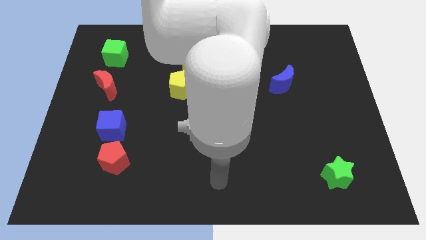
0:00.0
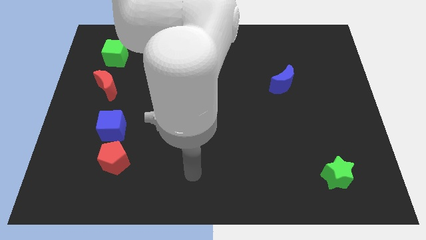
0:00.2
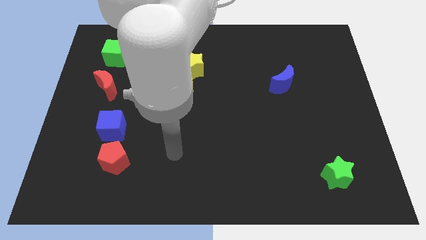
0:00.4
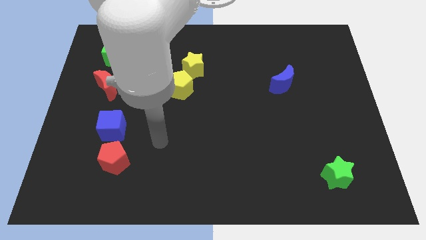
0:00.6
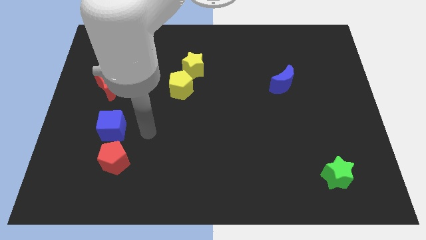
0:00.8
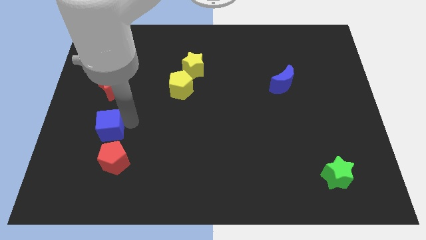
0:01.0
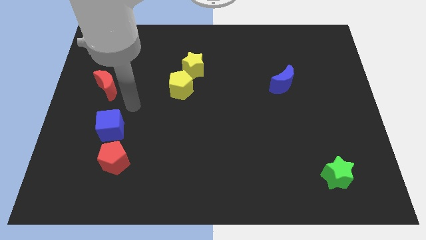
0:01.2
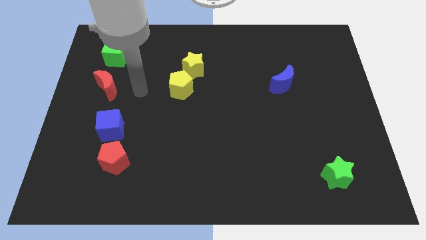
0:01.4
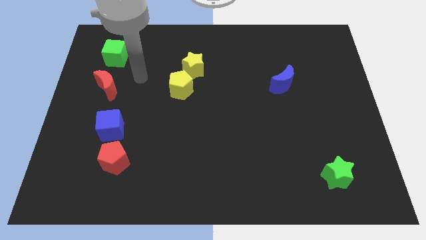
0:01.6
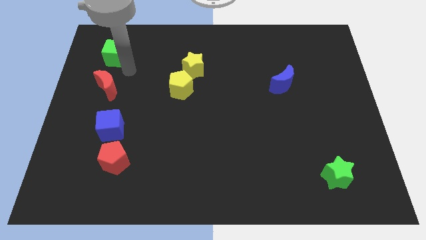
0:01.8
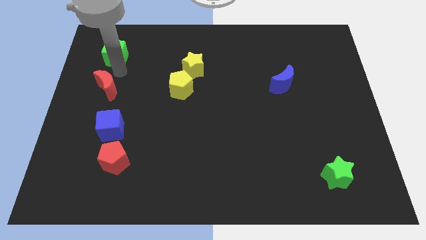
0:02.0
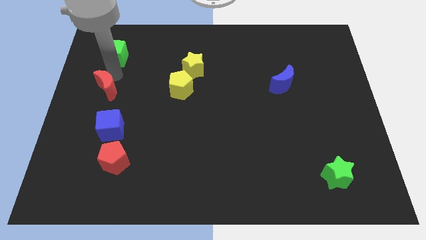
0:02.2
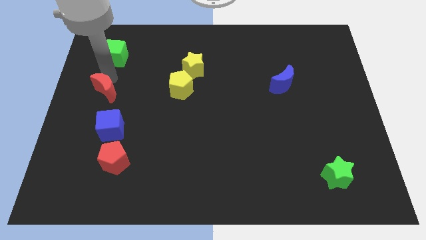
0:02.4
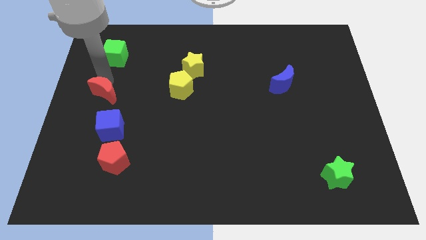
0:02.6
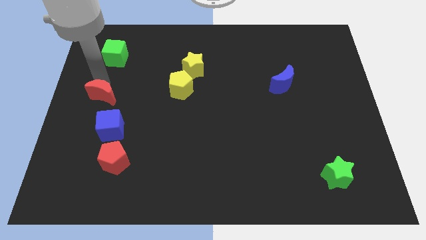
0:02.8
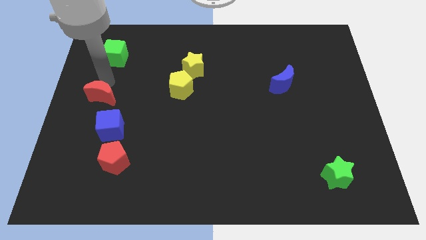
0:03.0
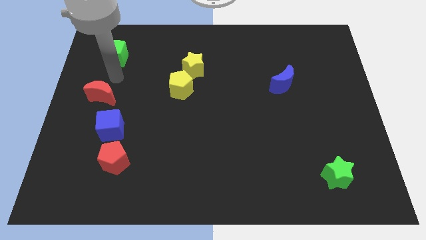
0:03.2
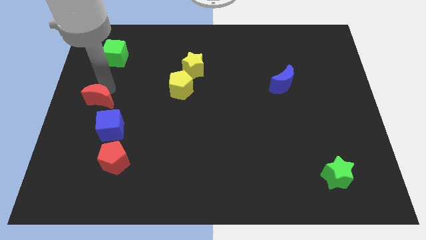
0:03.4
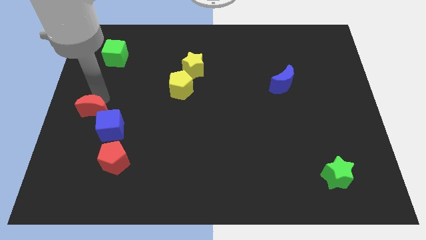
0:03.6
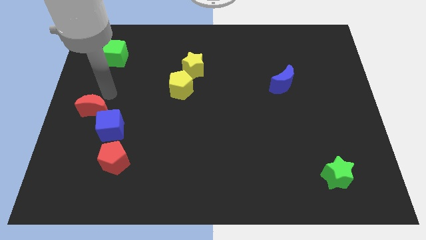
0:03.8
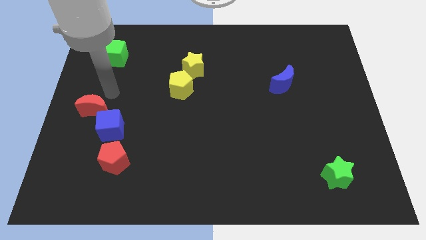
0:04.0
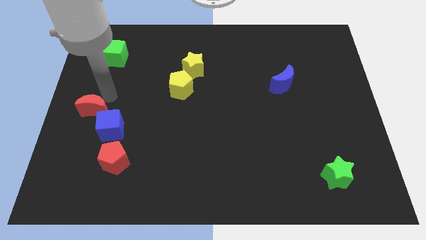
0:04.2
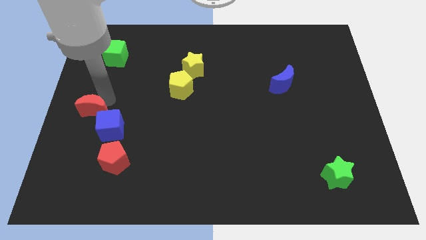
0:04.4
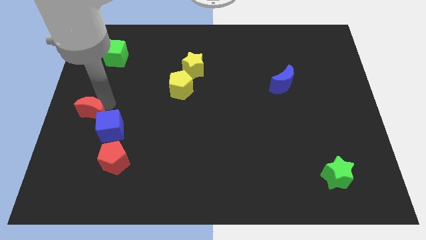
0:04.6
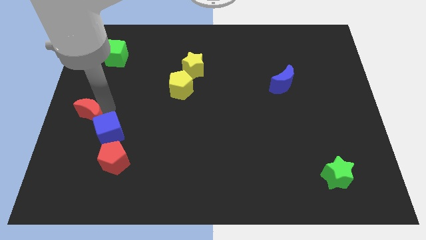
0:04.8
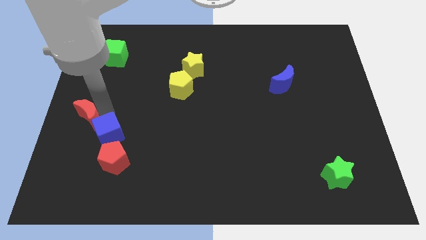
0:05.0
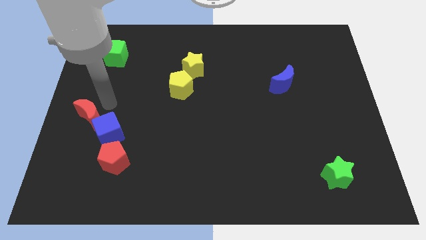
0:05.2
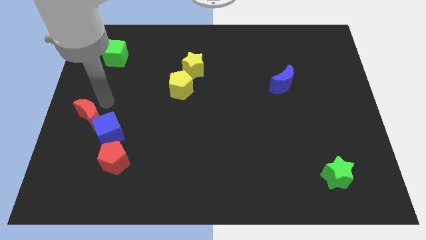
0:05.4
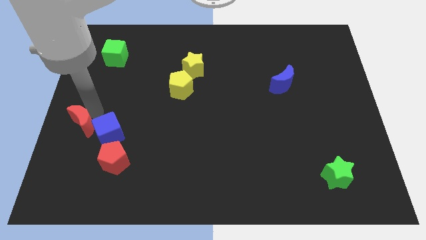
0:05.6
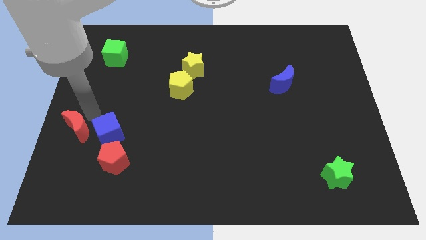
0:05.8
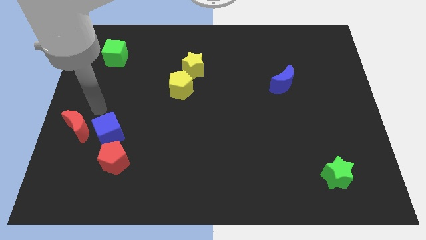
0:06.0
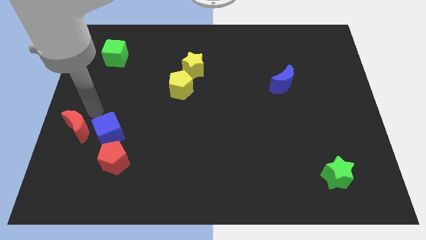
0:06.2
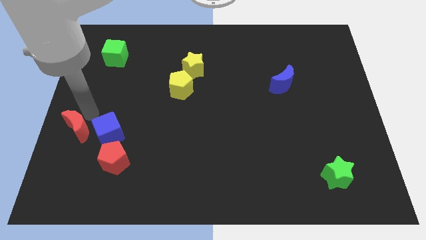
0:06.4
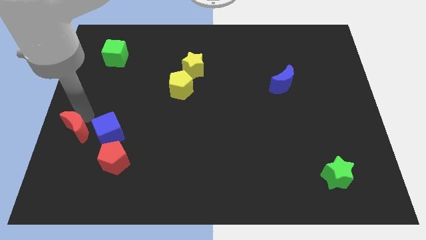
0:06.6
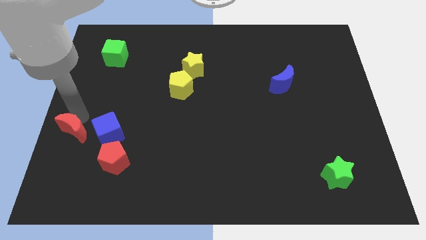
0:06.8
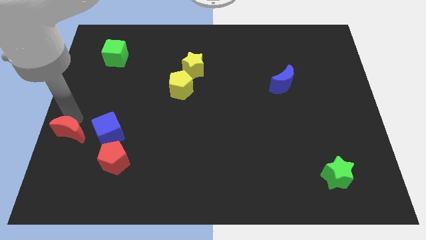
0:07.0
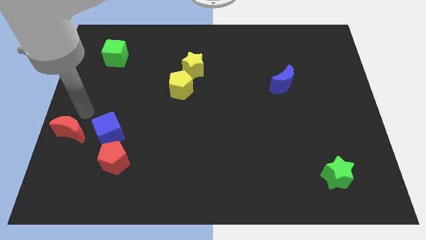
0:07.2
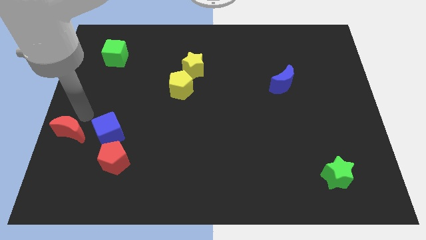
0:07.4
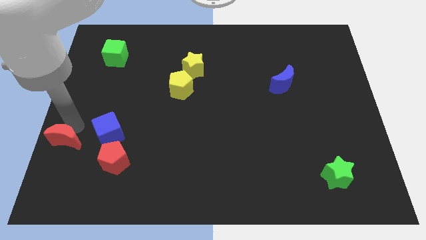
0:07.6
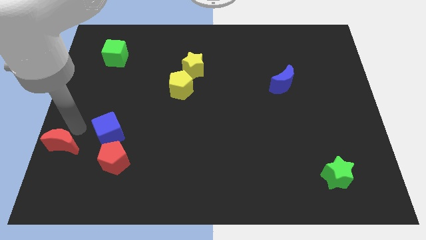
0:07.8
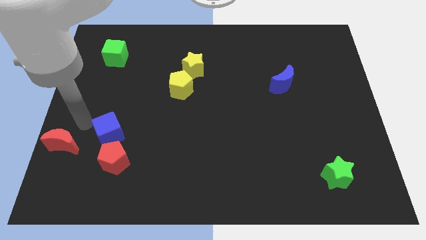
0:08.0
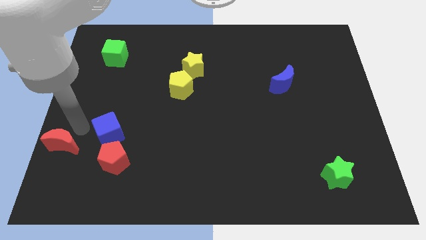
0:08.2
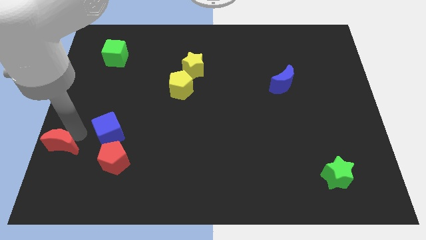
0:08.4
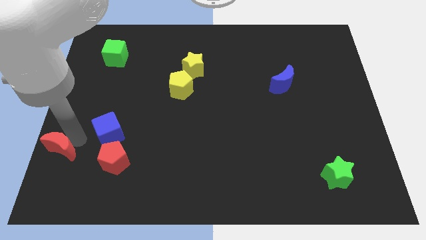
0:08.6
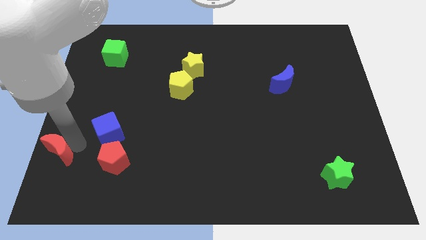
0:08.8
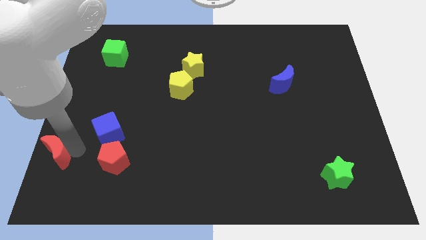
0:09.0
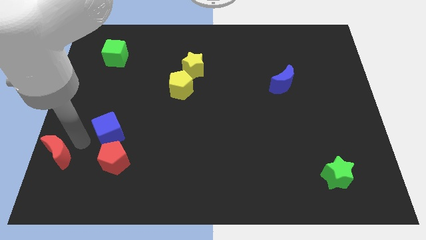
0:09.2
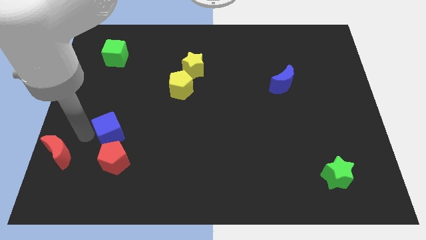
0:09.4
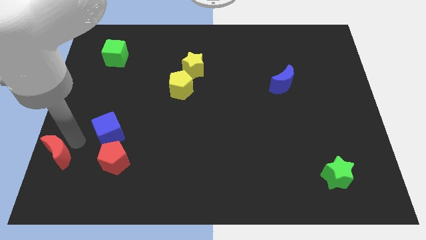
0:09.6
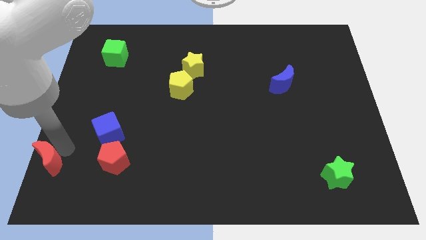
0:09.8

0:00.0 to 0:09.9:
move the red moon to the bottom left

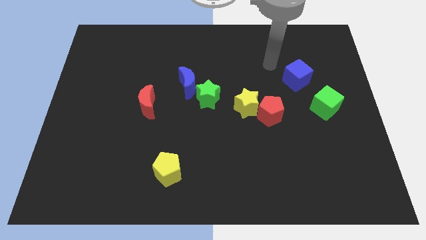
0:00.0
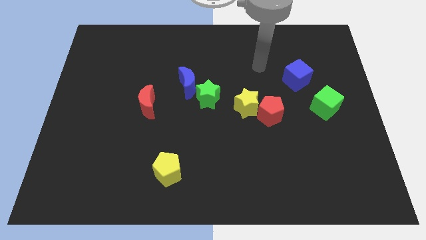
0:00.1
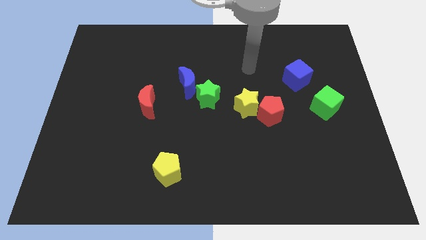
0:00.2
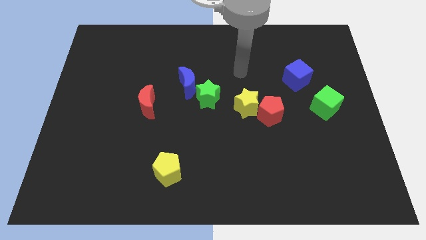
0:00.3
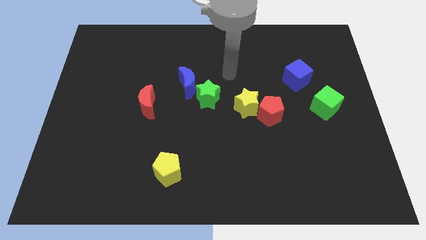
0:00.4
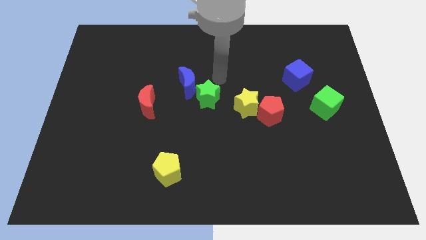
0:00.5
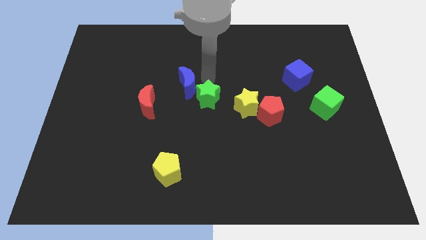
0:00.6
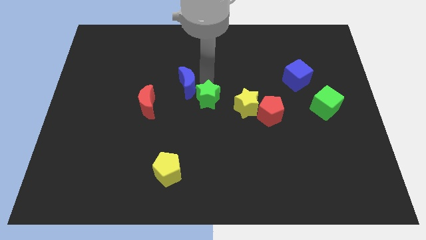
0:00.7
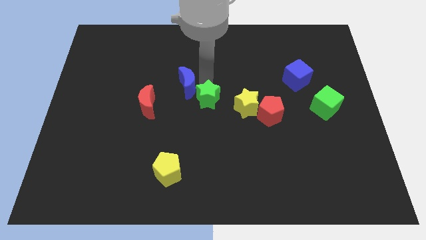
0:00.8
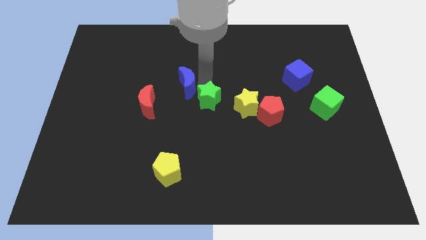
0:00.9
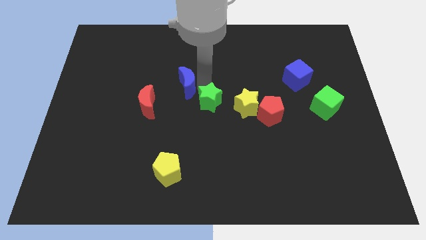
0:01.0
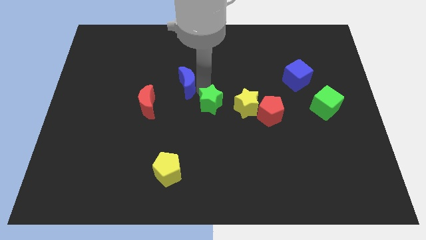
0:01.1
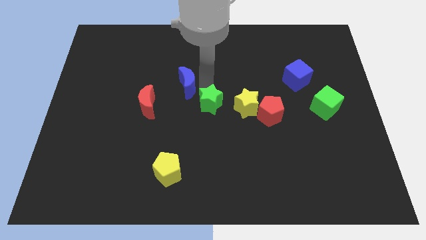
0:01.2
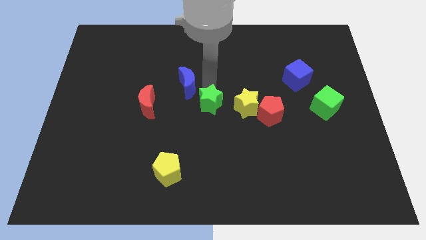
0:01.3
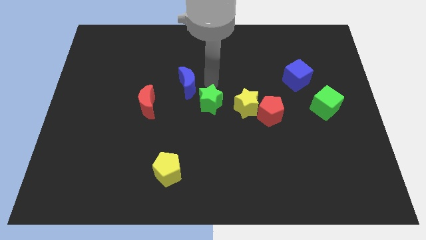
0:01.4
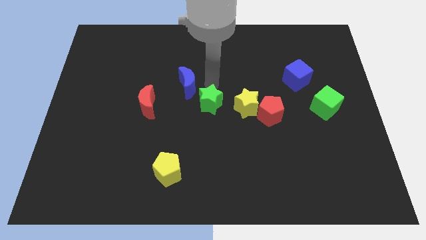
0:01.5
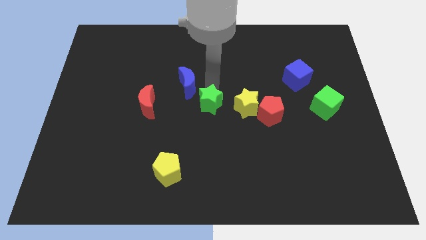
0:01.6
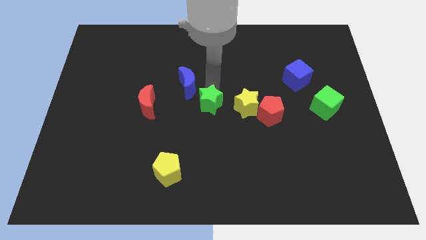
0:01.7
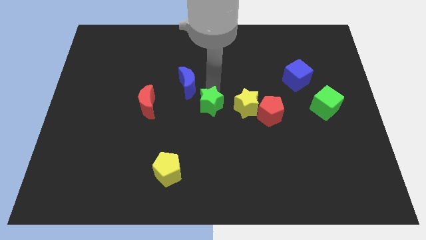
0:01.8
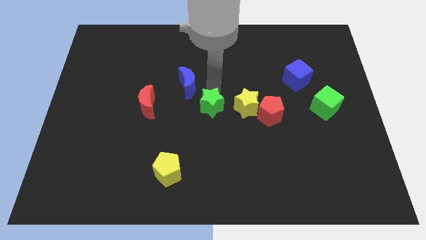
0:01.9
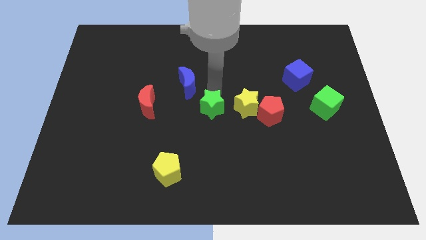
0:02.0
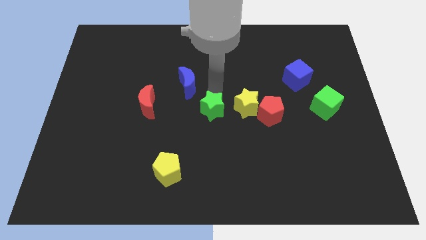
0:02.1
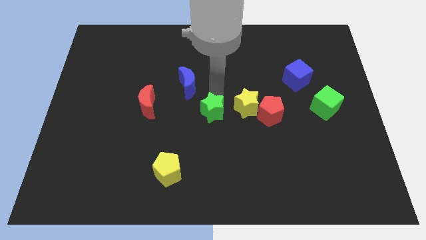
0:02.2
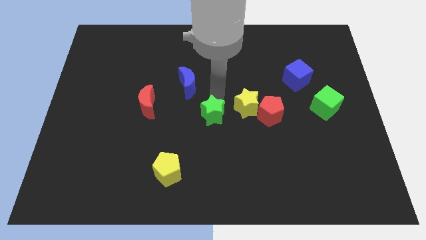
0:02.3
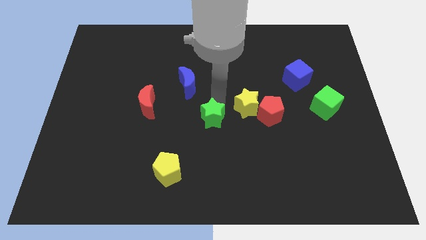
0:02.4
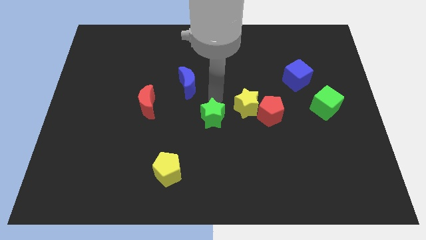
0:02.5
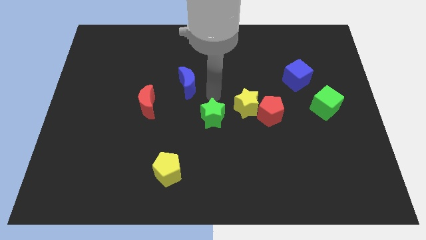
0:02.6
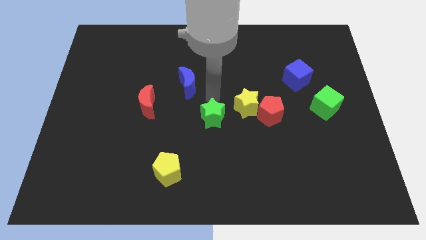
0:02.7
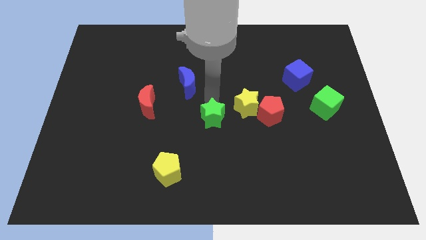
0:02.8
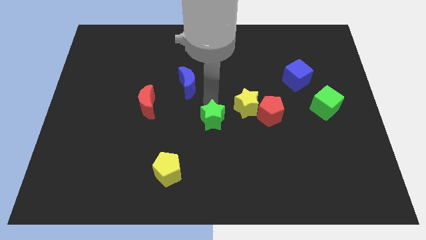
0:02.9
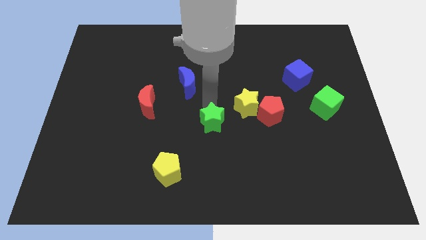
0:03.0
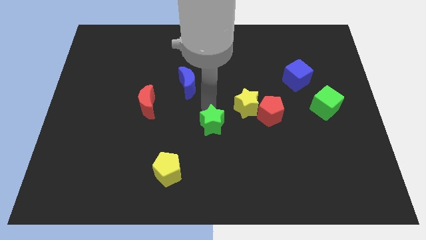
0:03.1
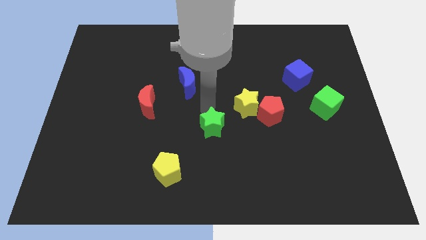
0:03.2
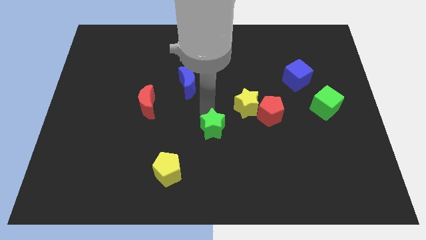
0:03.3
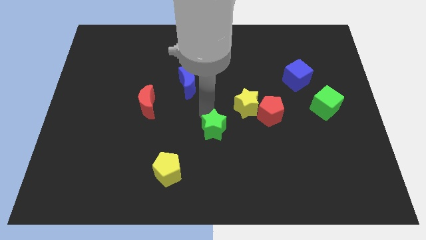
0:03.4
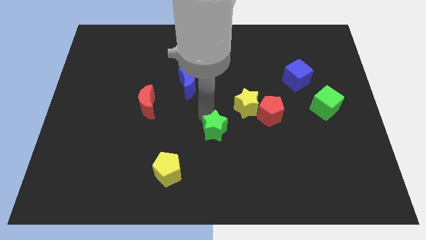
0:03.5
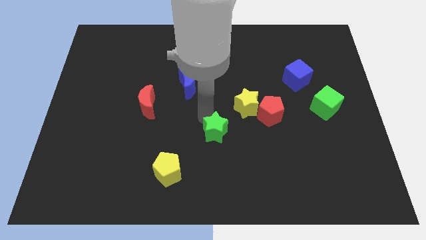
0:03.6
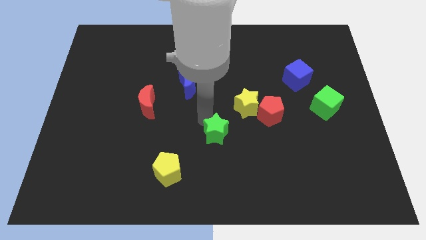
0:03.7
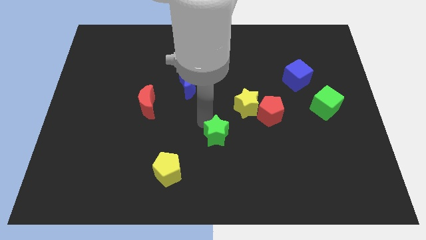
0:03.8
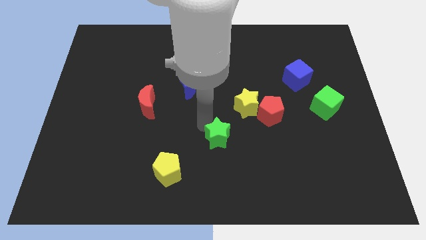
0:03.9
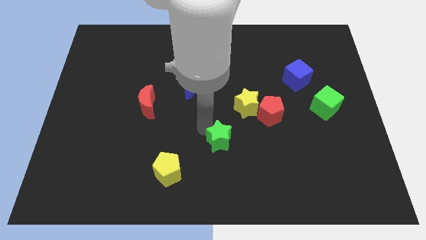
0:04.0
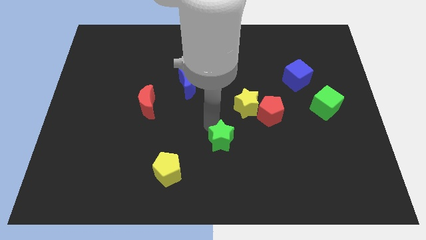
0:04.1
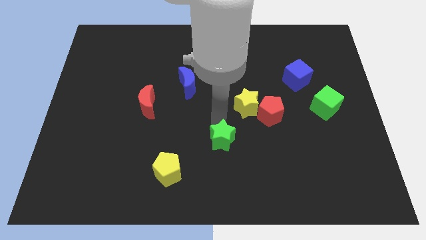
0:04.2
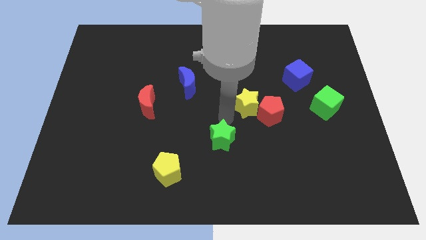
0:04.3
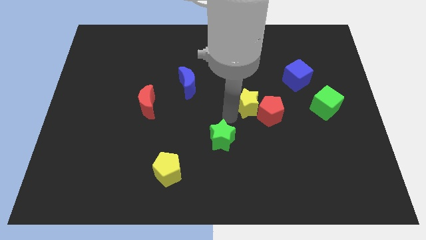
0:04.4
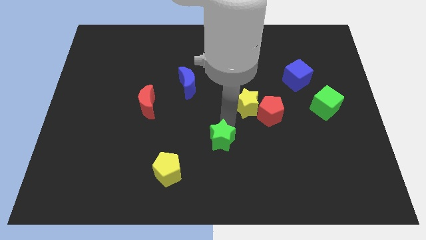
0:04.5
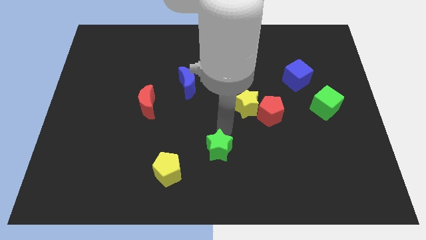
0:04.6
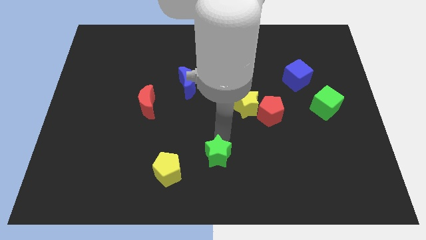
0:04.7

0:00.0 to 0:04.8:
push the green star to the bottom
